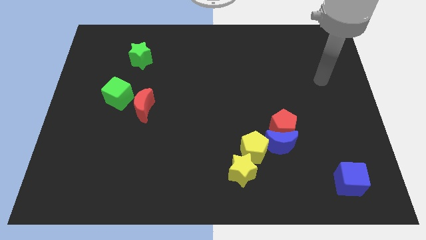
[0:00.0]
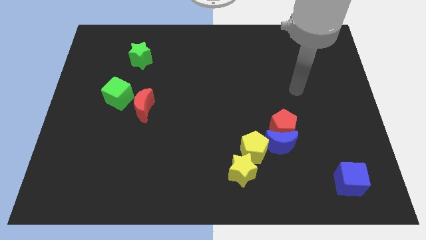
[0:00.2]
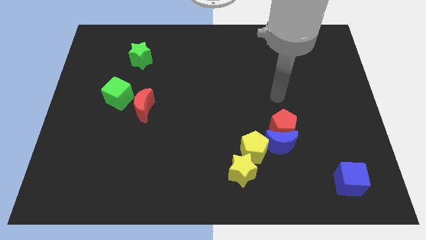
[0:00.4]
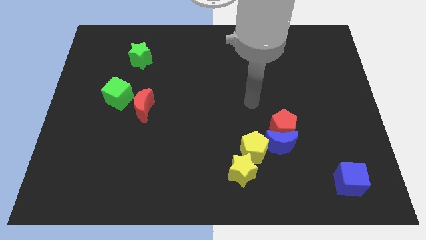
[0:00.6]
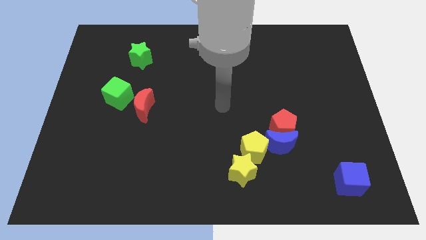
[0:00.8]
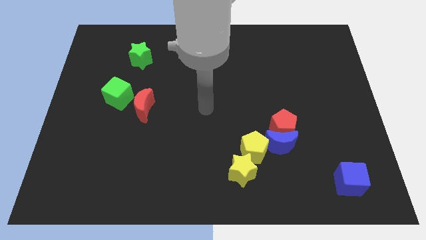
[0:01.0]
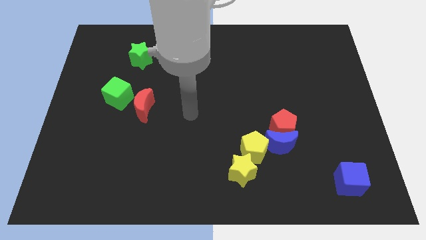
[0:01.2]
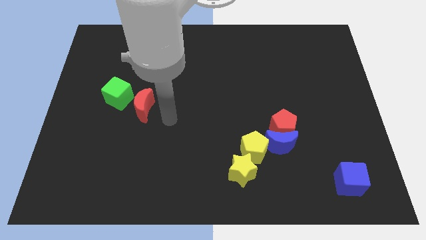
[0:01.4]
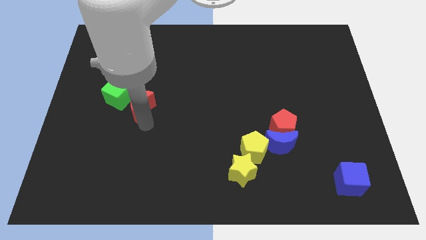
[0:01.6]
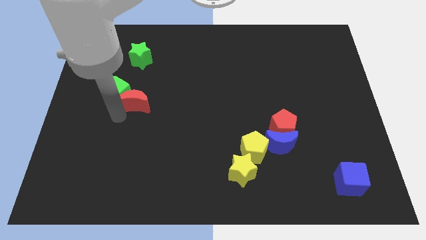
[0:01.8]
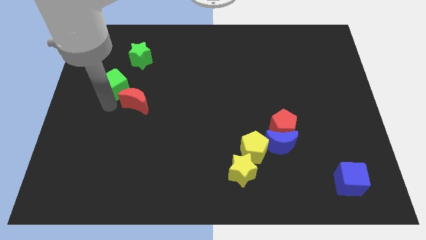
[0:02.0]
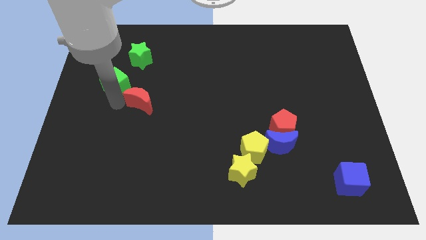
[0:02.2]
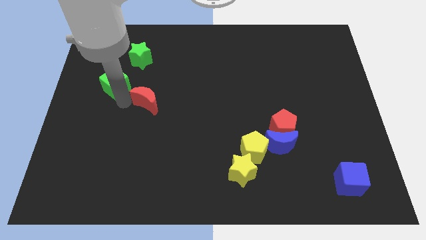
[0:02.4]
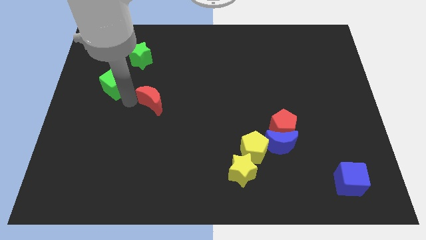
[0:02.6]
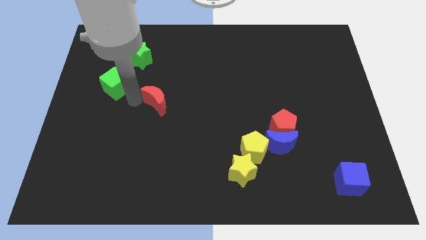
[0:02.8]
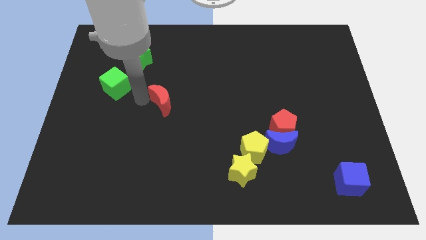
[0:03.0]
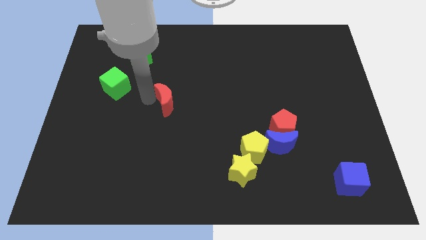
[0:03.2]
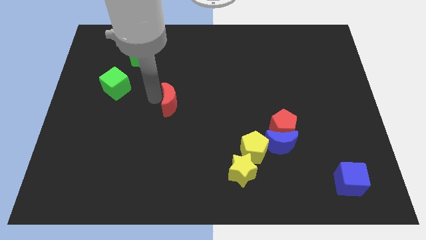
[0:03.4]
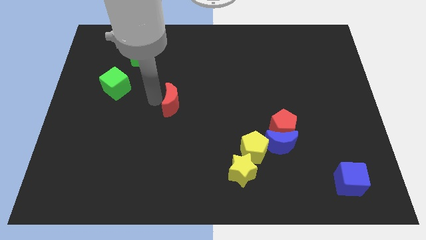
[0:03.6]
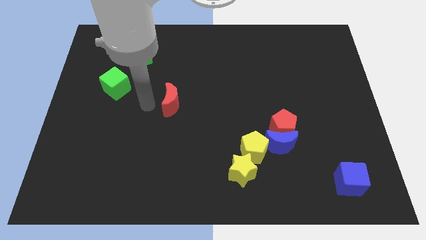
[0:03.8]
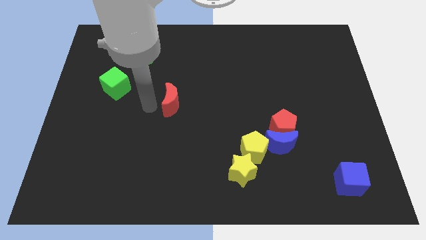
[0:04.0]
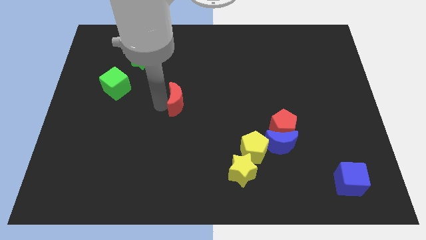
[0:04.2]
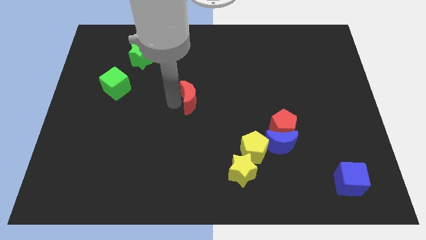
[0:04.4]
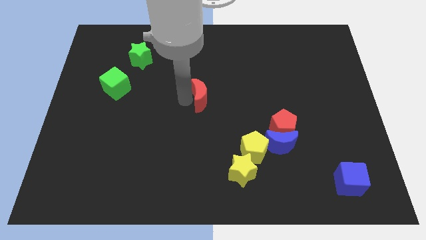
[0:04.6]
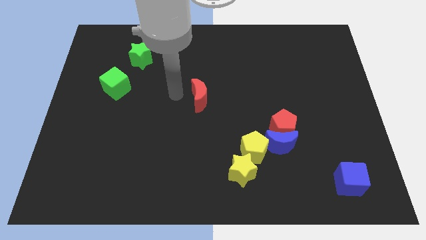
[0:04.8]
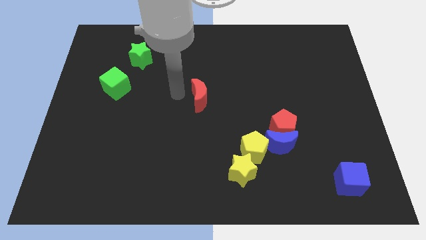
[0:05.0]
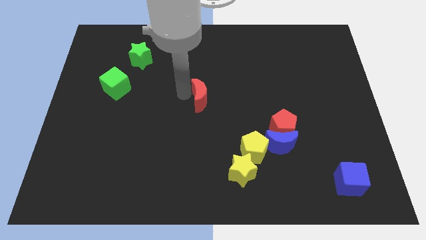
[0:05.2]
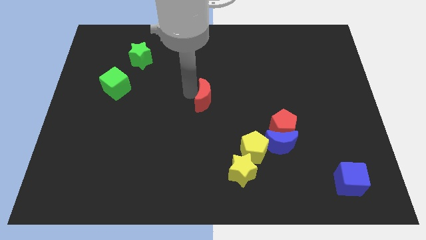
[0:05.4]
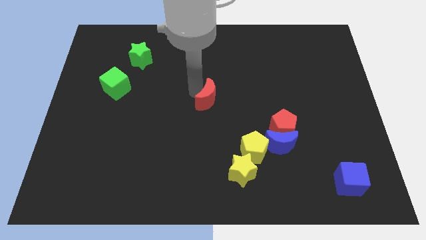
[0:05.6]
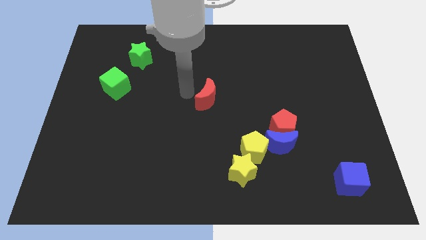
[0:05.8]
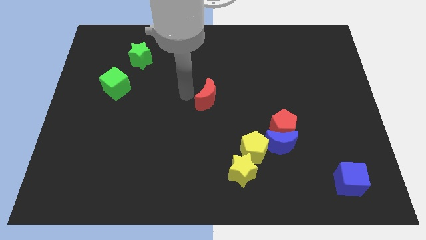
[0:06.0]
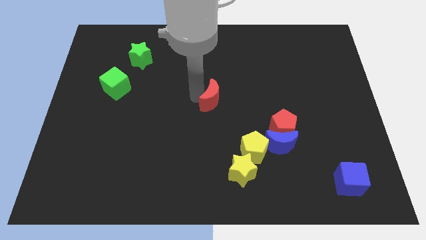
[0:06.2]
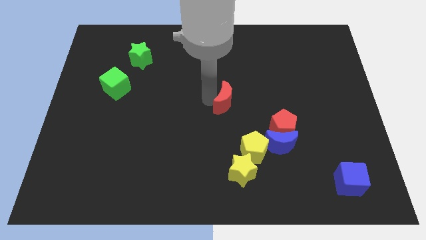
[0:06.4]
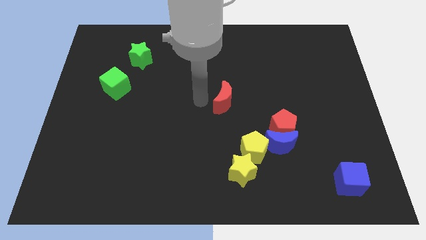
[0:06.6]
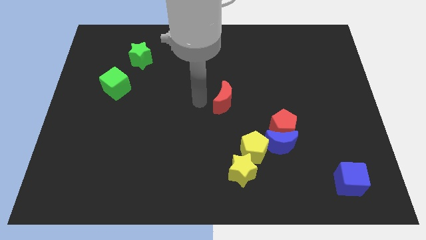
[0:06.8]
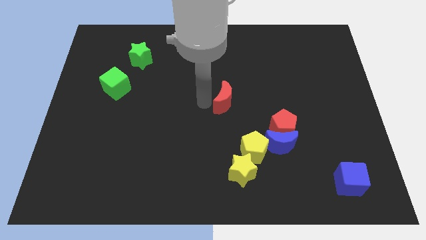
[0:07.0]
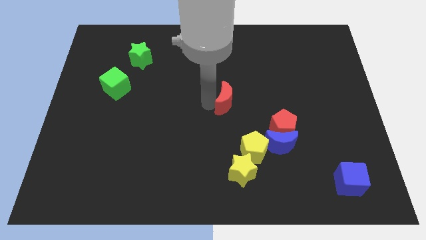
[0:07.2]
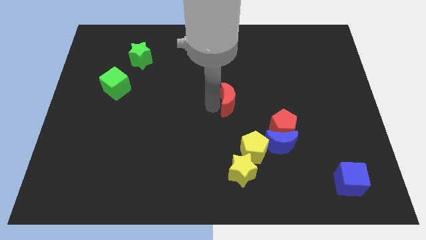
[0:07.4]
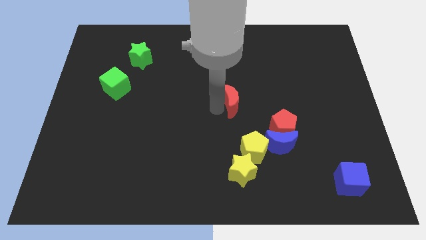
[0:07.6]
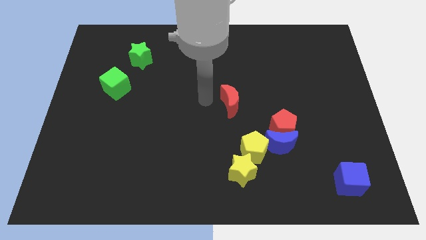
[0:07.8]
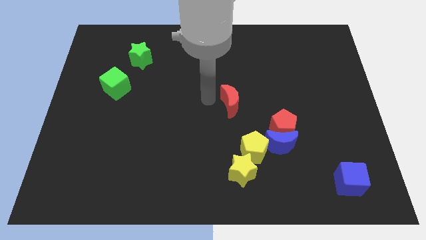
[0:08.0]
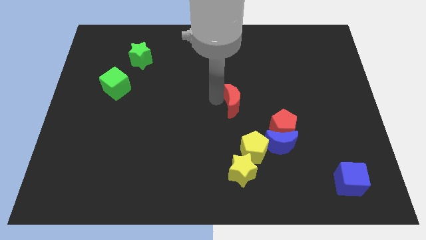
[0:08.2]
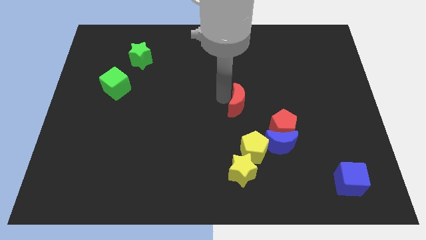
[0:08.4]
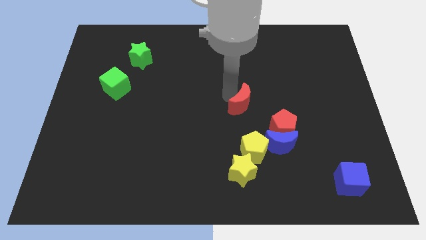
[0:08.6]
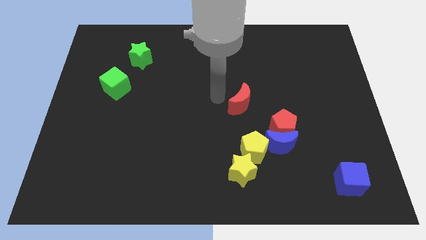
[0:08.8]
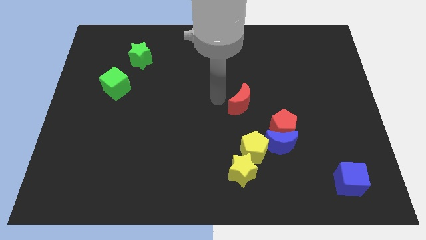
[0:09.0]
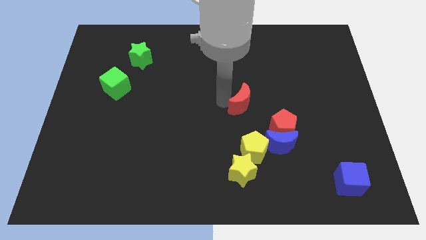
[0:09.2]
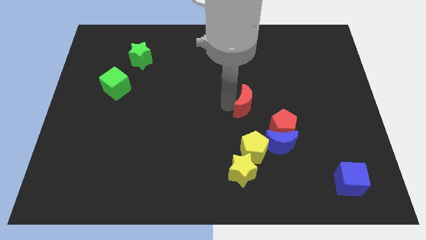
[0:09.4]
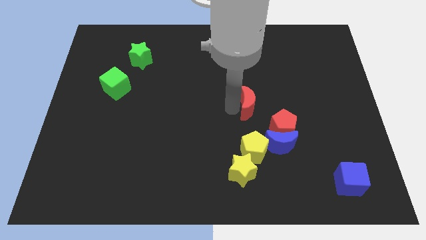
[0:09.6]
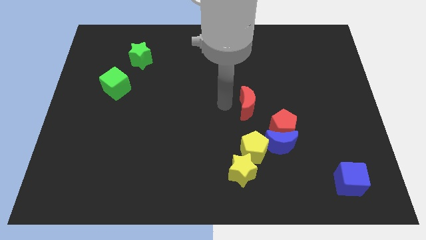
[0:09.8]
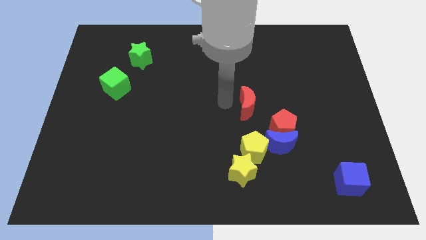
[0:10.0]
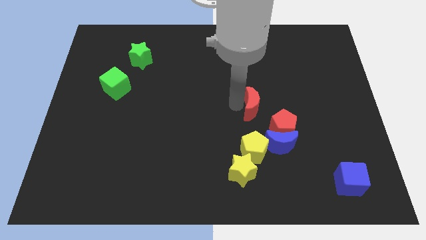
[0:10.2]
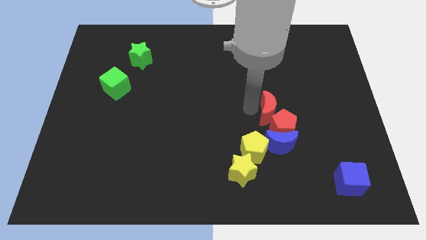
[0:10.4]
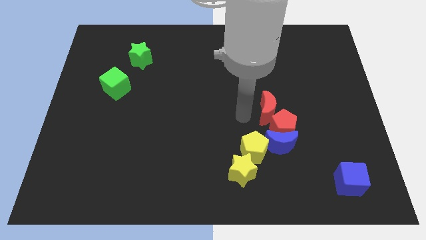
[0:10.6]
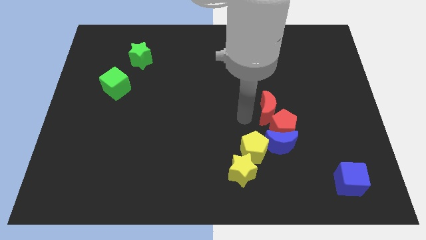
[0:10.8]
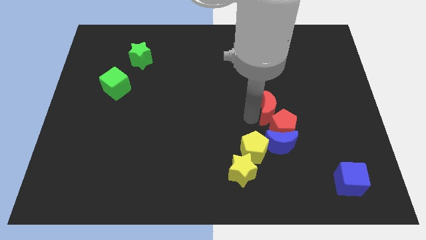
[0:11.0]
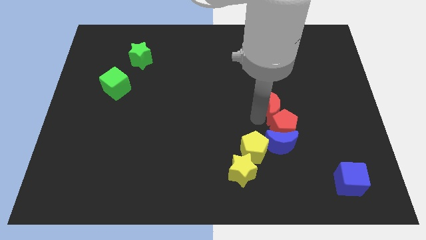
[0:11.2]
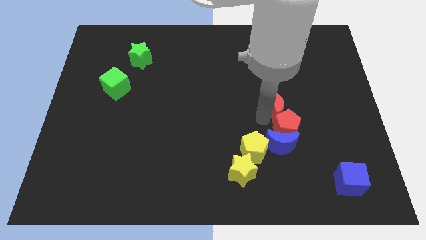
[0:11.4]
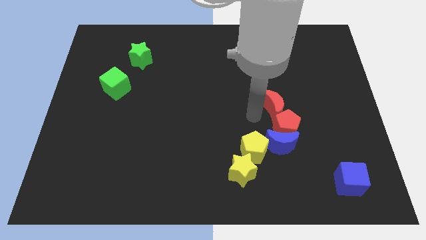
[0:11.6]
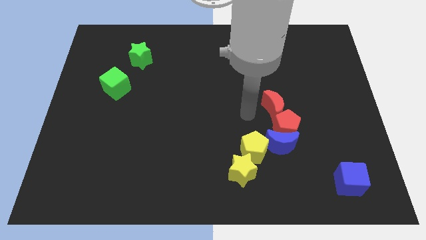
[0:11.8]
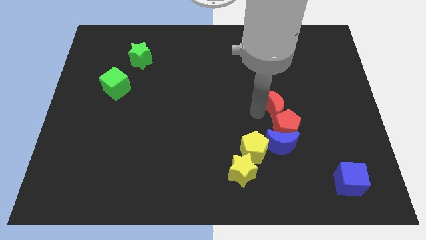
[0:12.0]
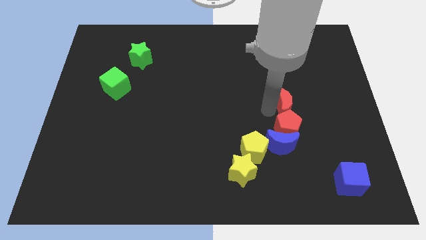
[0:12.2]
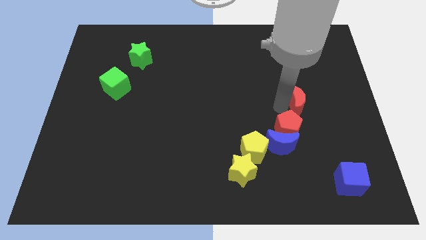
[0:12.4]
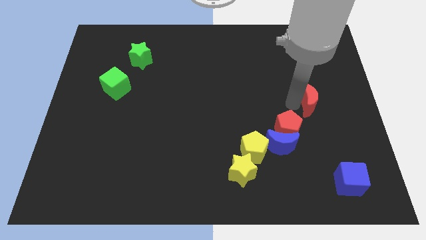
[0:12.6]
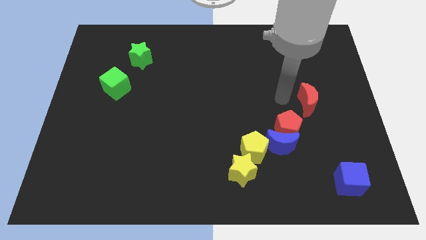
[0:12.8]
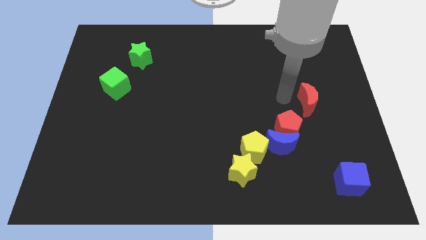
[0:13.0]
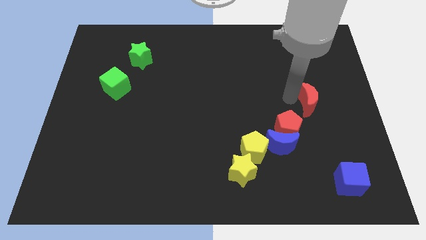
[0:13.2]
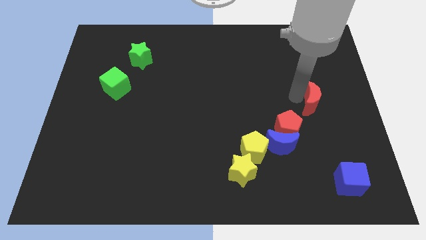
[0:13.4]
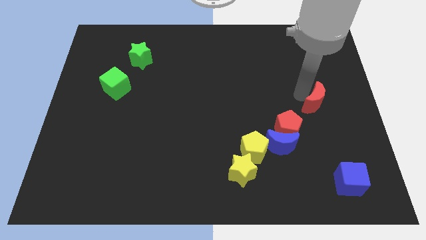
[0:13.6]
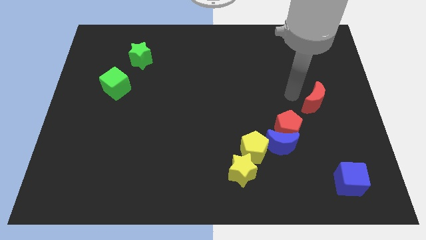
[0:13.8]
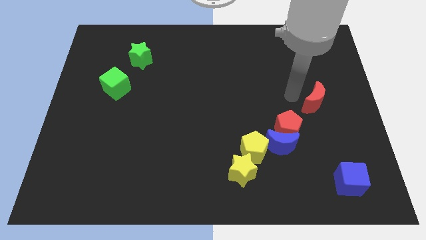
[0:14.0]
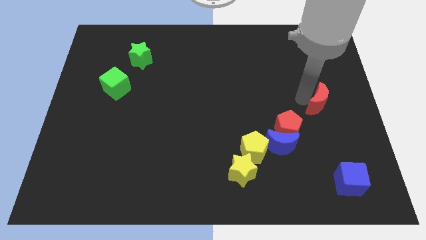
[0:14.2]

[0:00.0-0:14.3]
slide the red moon to the center right
